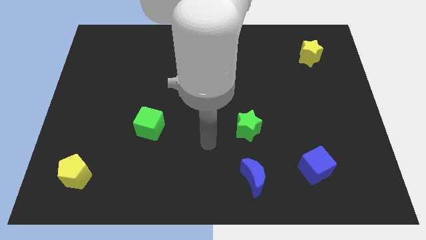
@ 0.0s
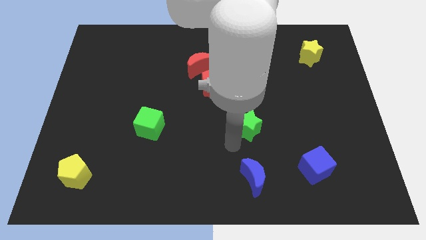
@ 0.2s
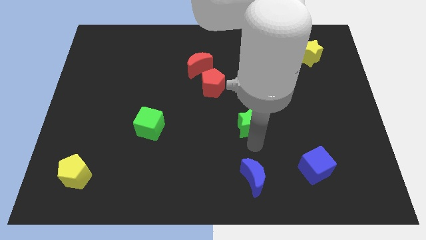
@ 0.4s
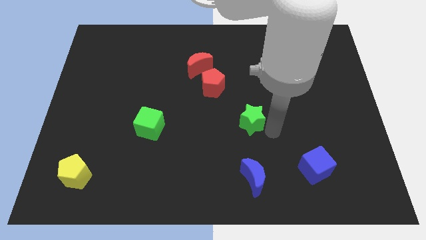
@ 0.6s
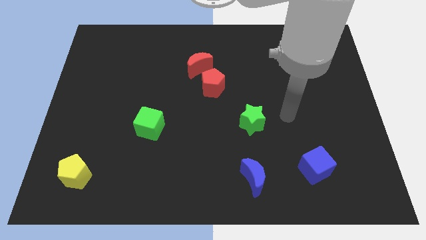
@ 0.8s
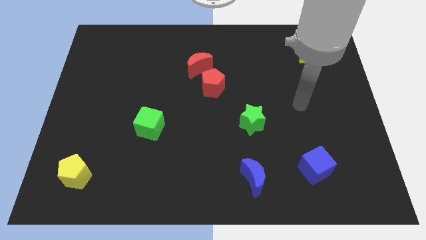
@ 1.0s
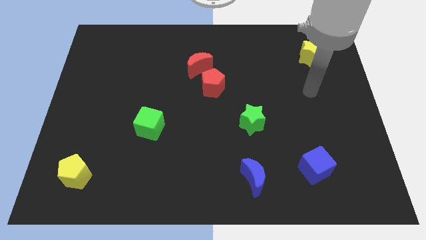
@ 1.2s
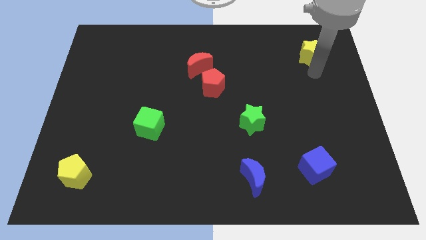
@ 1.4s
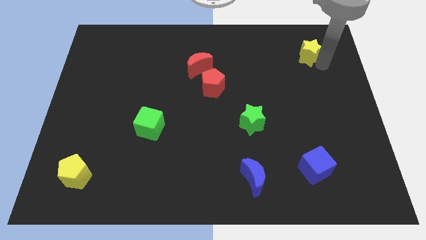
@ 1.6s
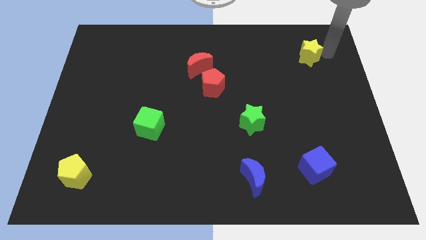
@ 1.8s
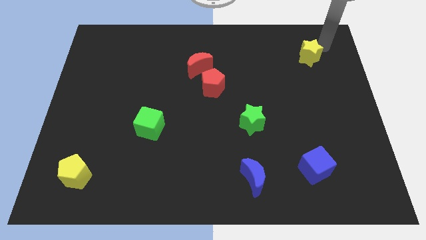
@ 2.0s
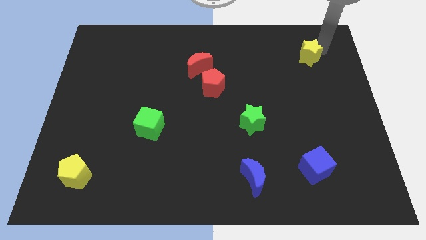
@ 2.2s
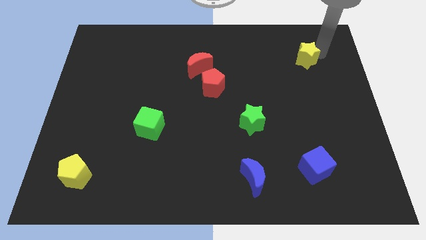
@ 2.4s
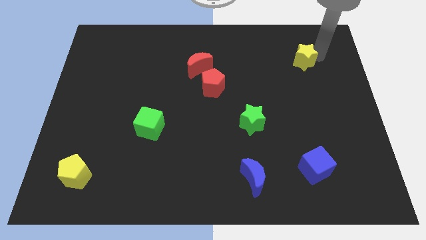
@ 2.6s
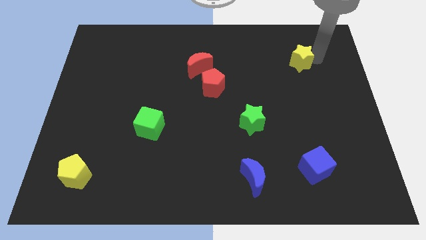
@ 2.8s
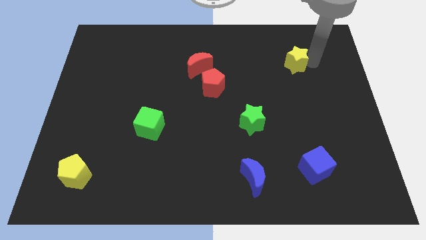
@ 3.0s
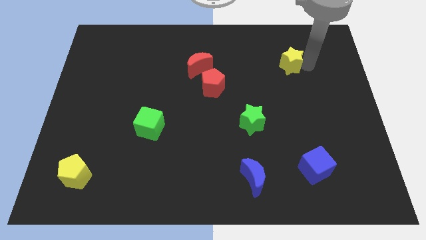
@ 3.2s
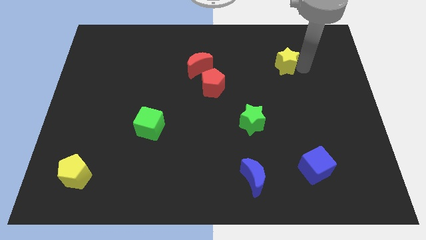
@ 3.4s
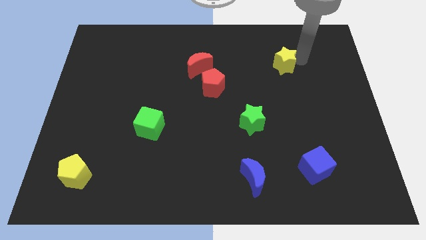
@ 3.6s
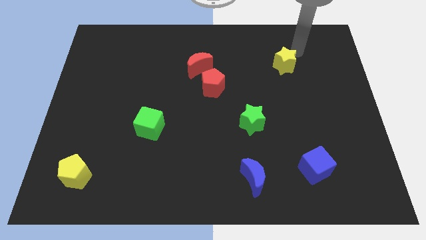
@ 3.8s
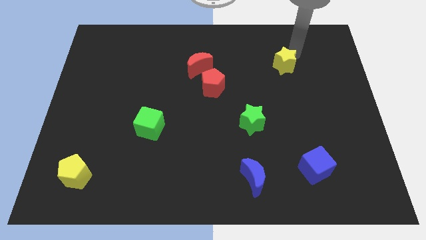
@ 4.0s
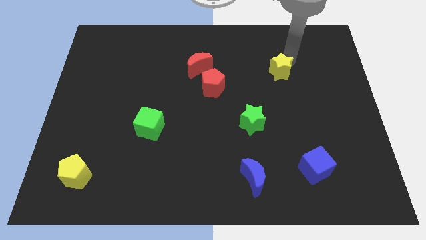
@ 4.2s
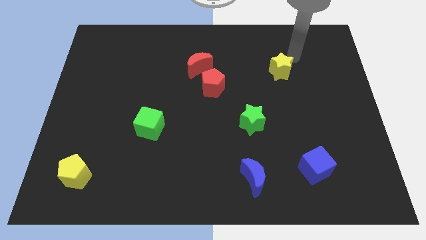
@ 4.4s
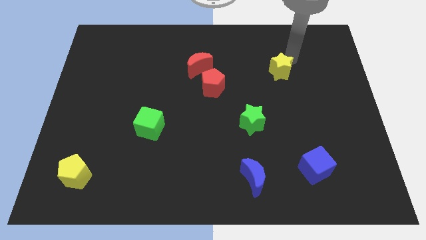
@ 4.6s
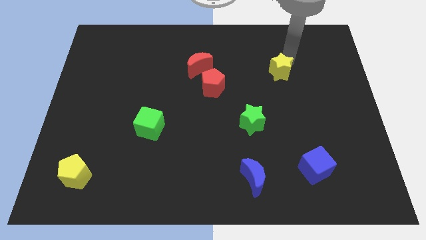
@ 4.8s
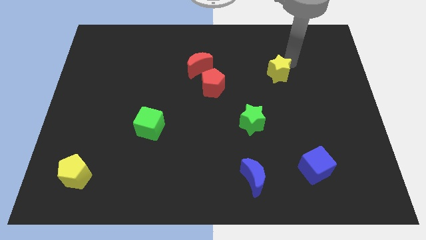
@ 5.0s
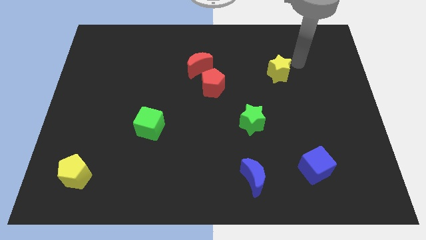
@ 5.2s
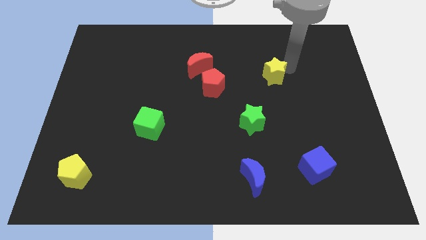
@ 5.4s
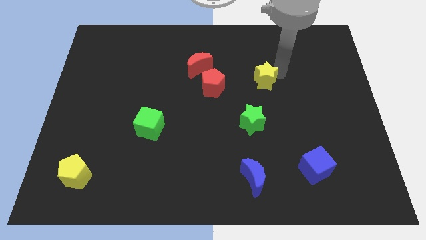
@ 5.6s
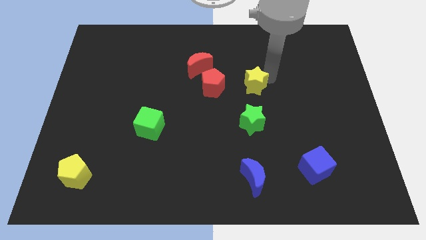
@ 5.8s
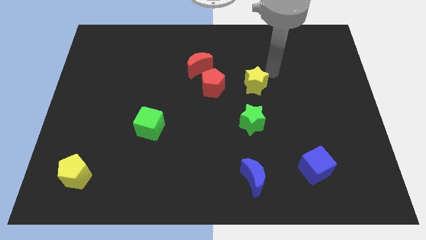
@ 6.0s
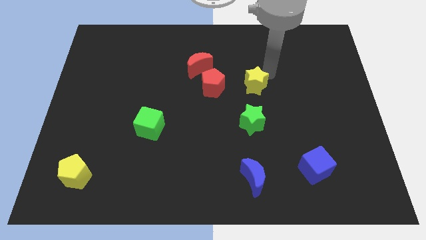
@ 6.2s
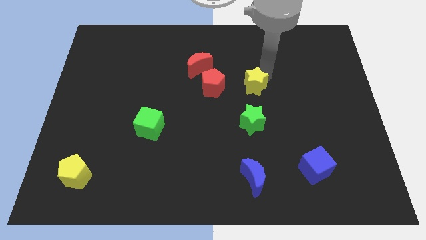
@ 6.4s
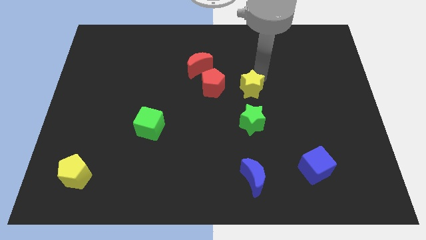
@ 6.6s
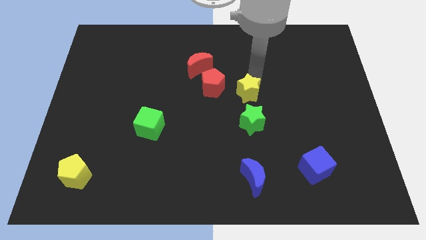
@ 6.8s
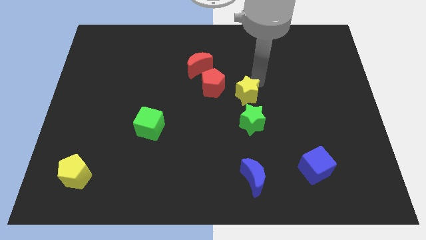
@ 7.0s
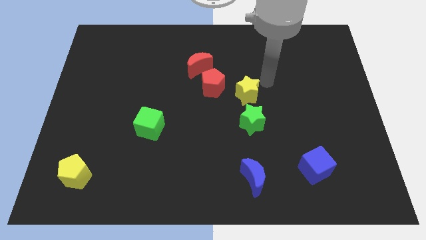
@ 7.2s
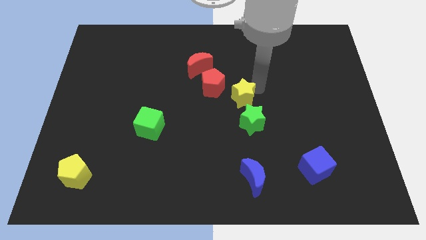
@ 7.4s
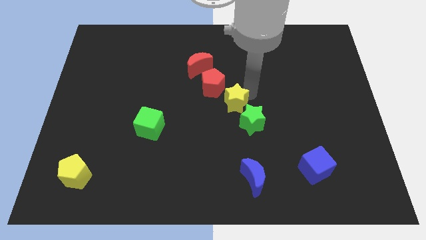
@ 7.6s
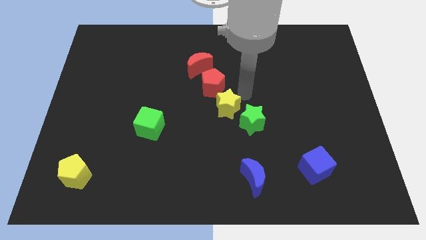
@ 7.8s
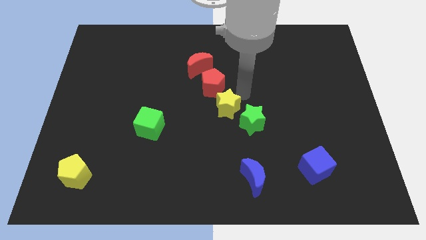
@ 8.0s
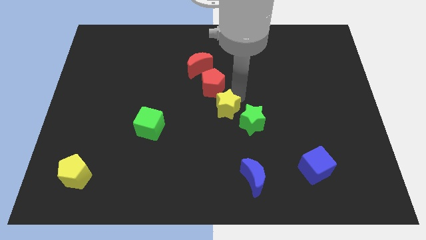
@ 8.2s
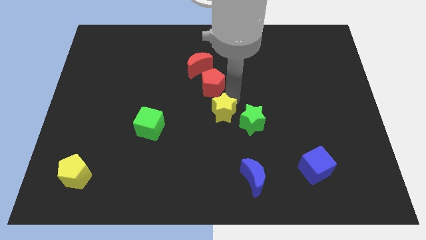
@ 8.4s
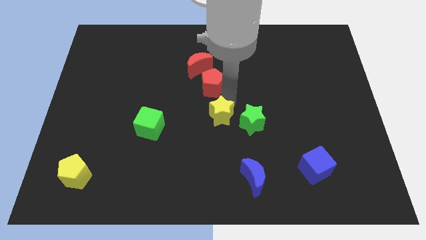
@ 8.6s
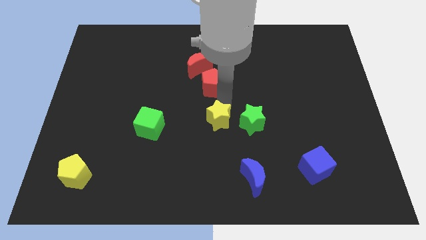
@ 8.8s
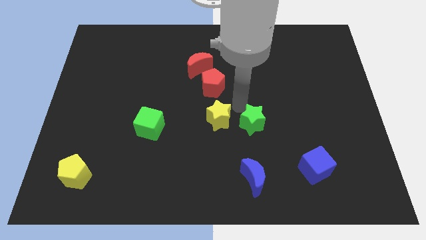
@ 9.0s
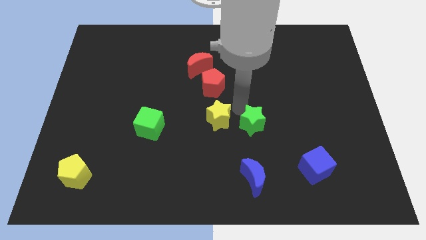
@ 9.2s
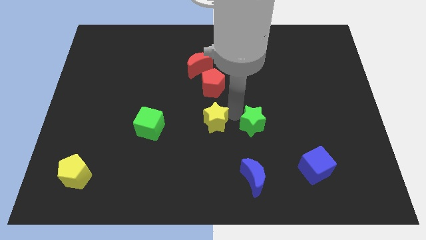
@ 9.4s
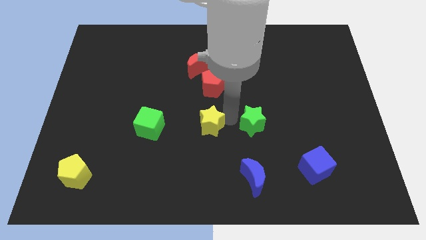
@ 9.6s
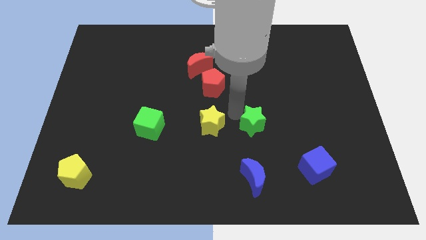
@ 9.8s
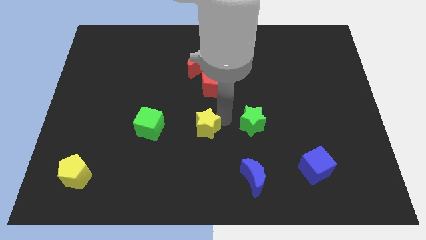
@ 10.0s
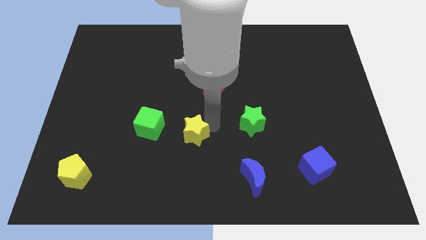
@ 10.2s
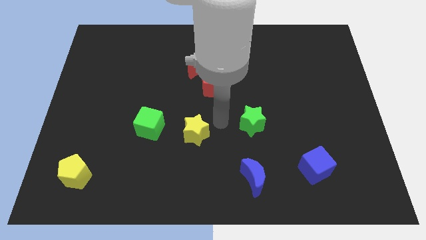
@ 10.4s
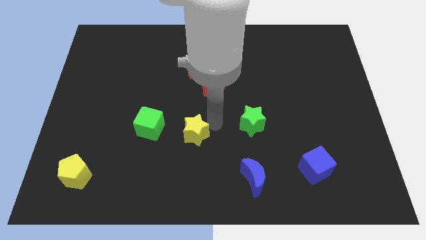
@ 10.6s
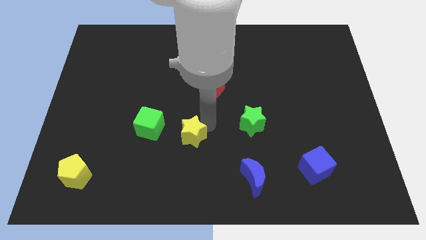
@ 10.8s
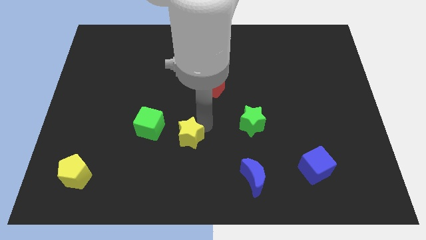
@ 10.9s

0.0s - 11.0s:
slide the yellow star to the bottom right side of the green cube

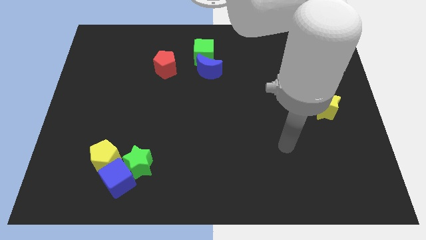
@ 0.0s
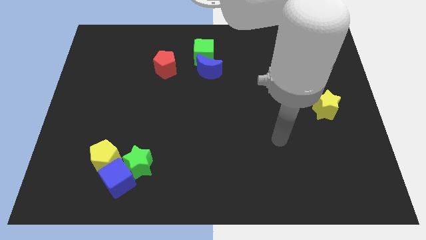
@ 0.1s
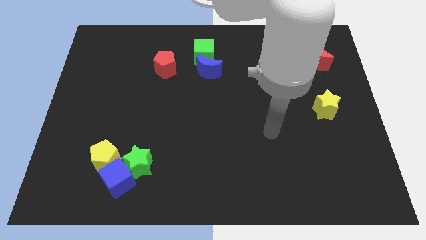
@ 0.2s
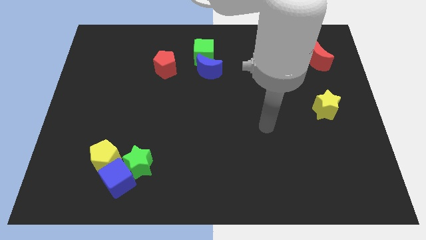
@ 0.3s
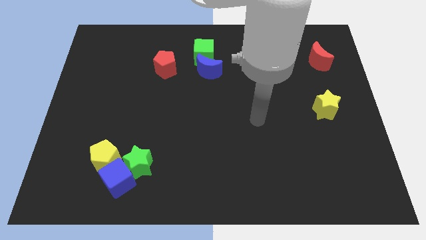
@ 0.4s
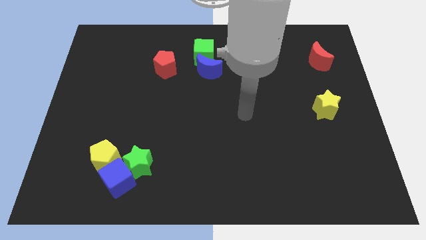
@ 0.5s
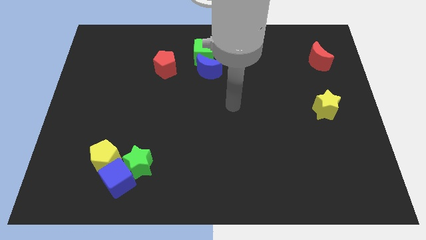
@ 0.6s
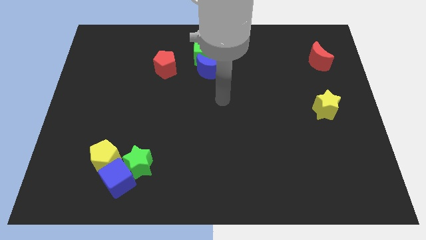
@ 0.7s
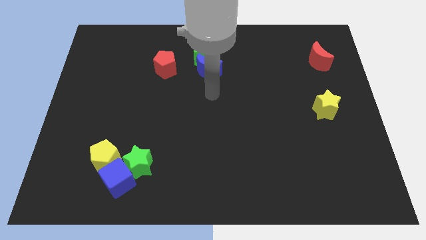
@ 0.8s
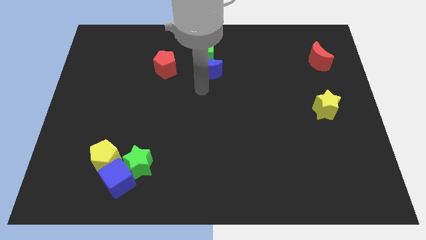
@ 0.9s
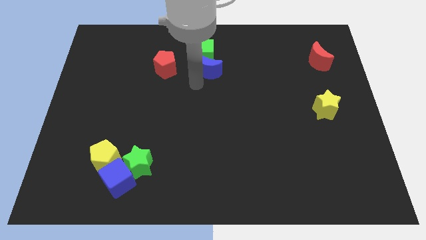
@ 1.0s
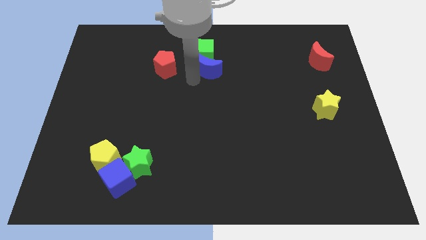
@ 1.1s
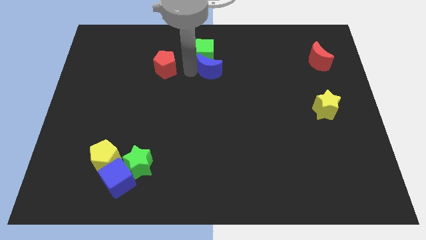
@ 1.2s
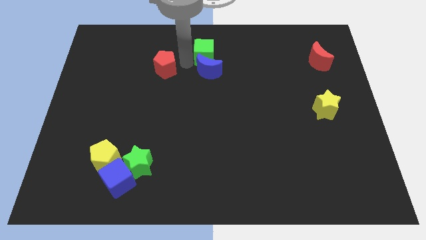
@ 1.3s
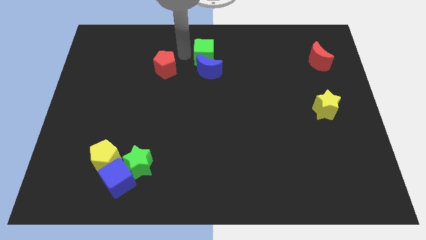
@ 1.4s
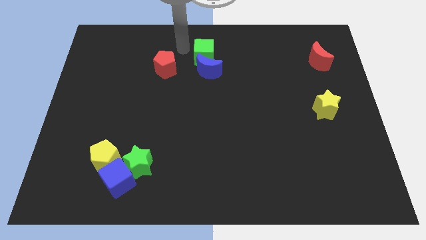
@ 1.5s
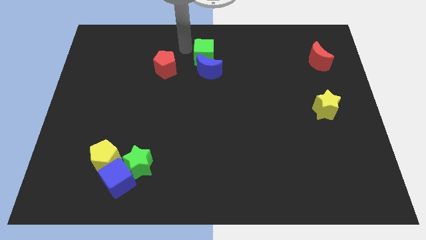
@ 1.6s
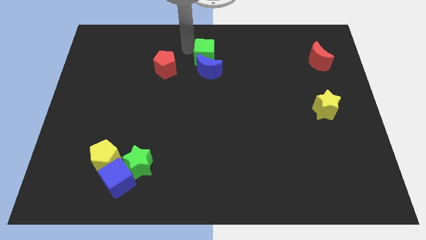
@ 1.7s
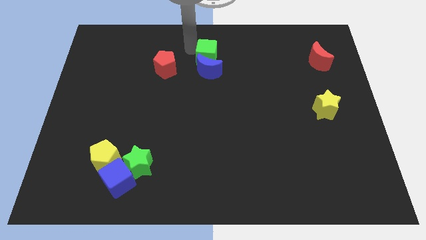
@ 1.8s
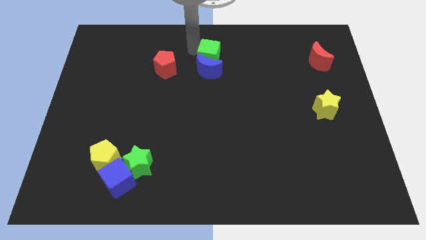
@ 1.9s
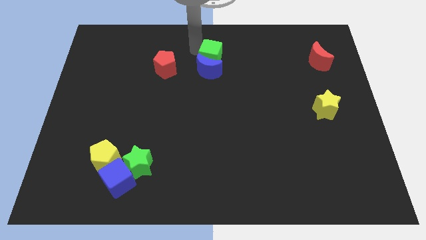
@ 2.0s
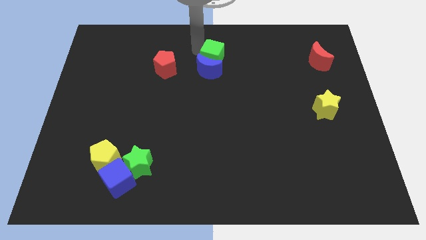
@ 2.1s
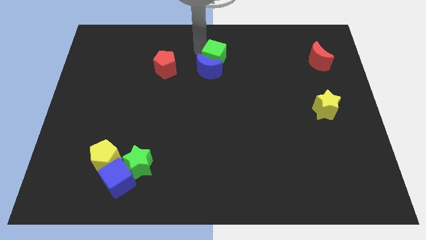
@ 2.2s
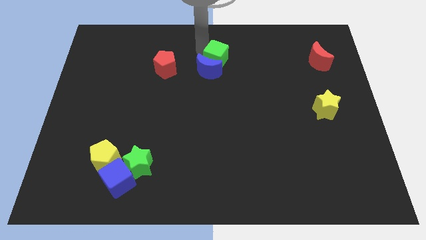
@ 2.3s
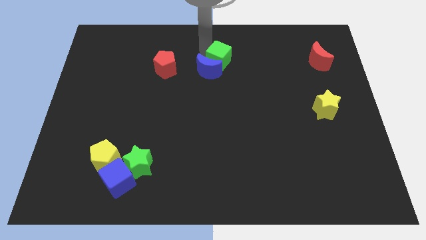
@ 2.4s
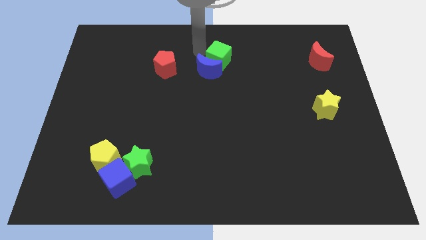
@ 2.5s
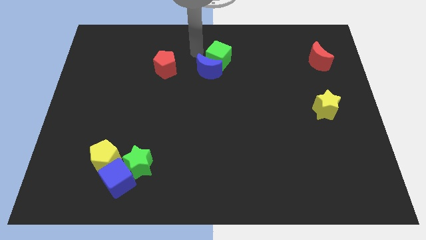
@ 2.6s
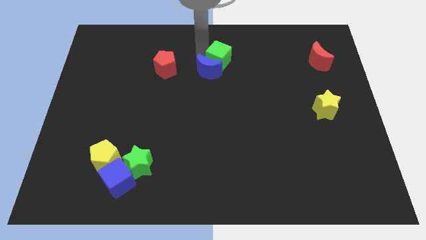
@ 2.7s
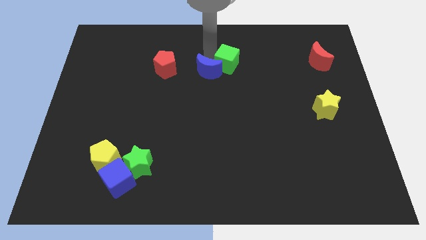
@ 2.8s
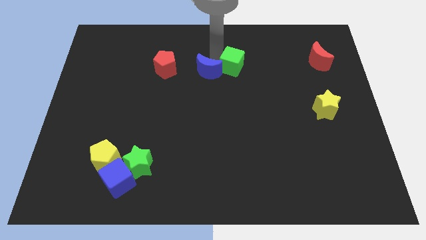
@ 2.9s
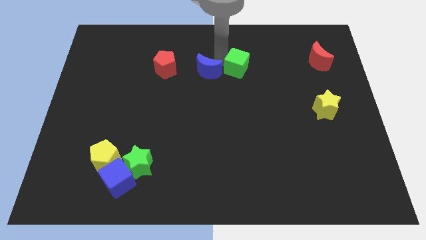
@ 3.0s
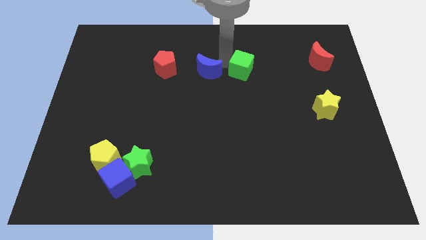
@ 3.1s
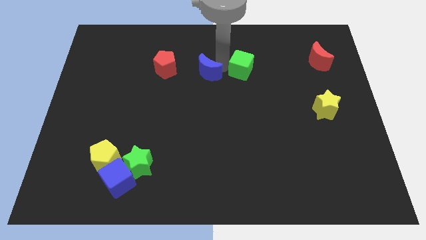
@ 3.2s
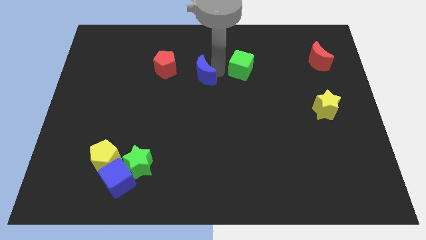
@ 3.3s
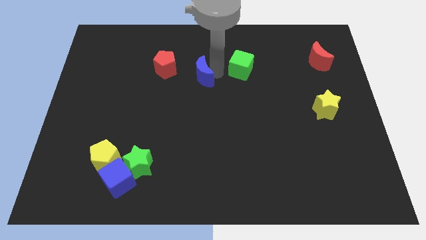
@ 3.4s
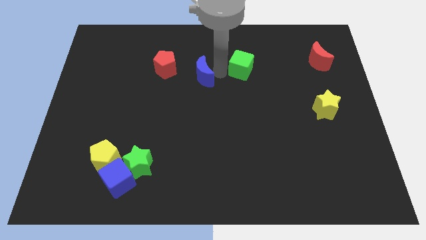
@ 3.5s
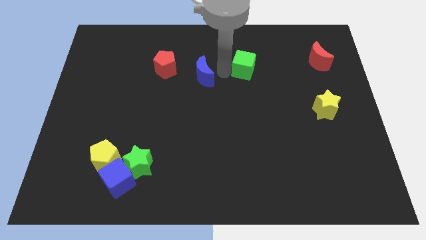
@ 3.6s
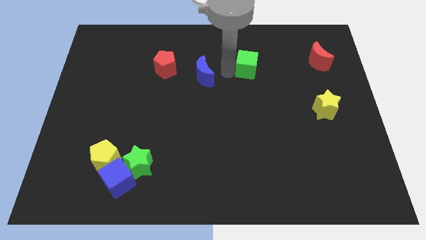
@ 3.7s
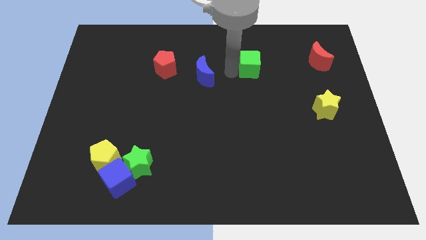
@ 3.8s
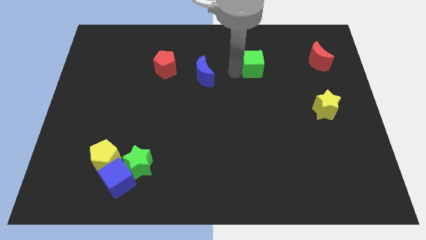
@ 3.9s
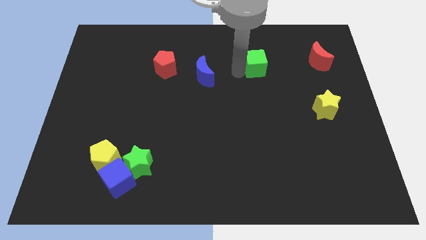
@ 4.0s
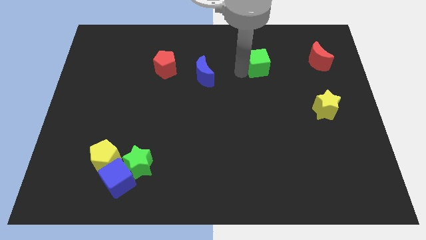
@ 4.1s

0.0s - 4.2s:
slide the green cube just left of the red moon
